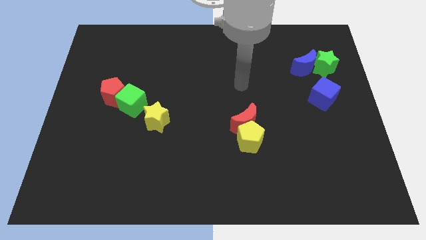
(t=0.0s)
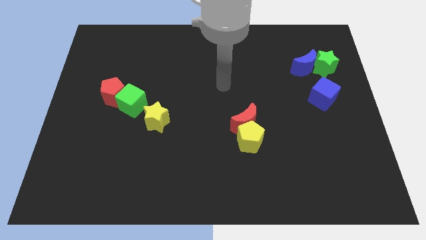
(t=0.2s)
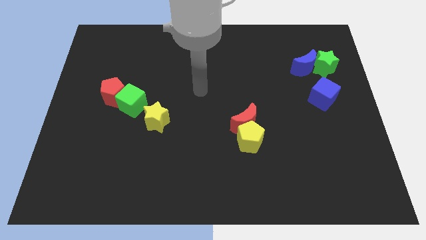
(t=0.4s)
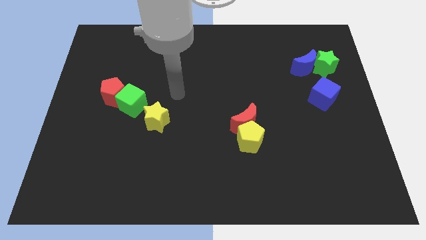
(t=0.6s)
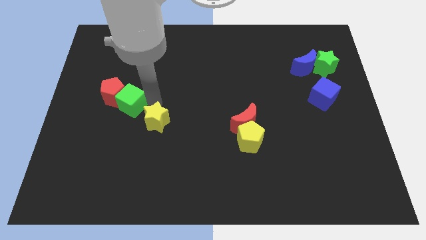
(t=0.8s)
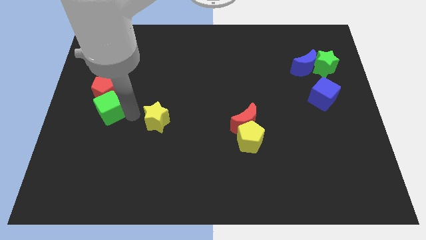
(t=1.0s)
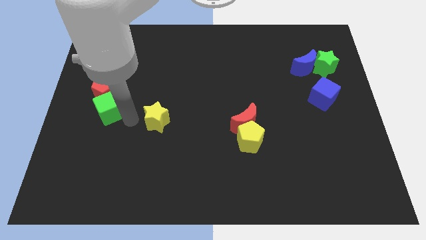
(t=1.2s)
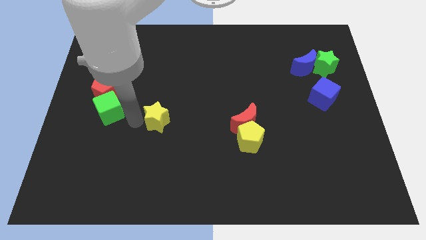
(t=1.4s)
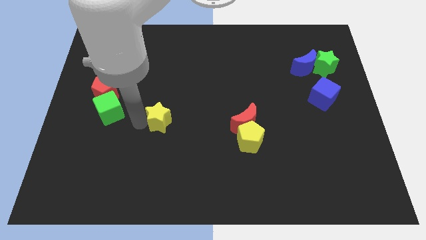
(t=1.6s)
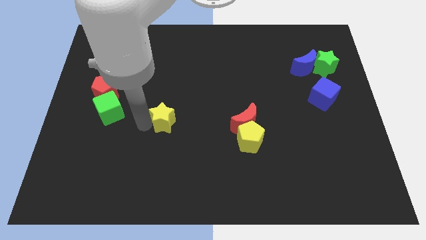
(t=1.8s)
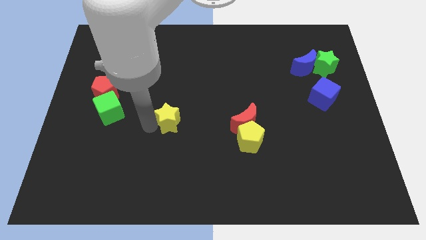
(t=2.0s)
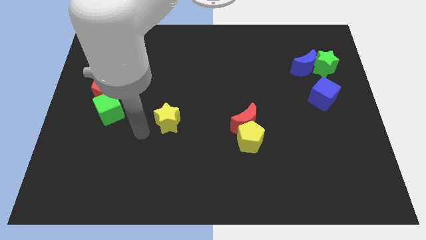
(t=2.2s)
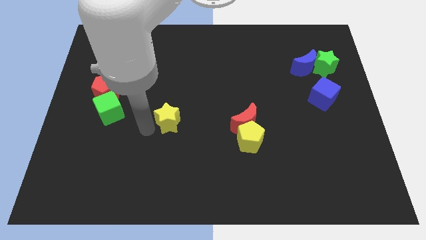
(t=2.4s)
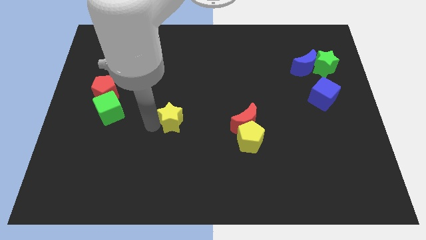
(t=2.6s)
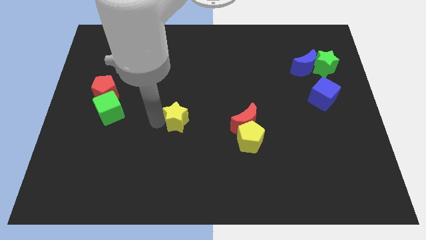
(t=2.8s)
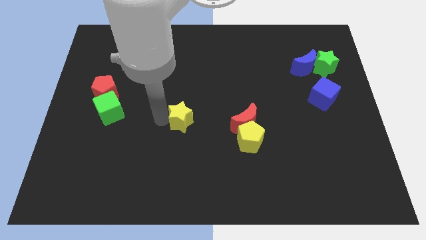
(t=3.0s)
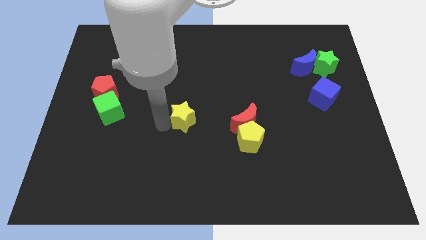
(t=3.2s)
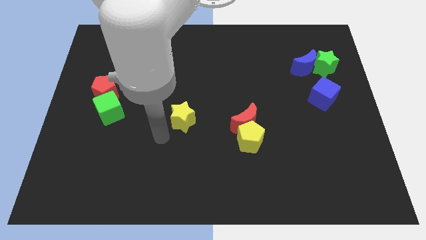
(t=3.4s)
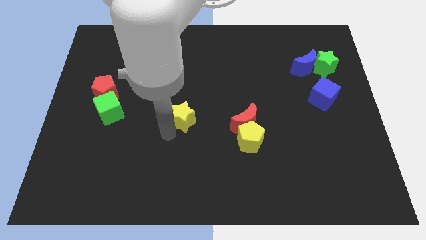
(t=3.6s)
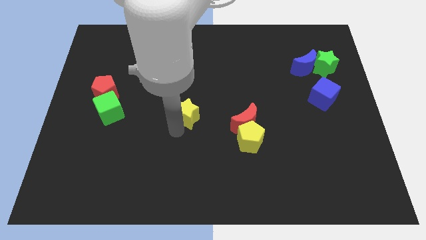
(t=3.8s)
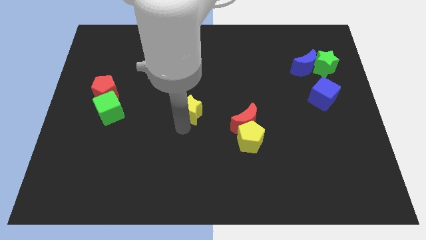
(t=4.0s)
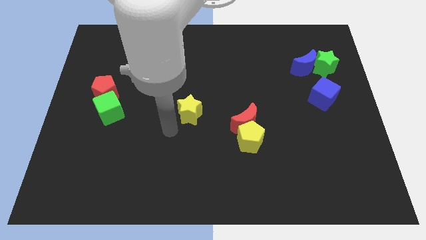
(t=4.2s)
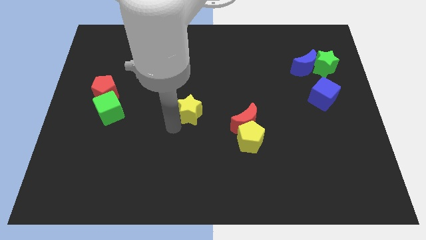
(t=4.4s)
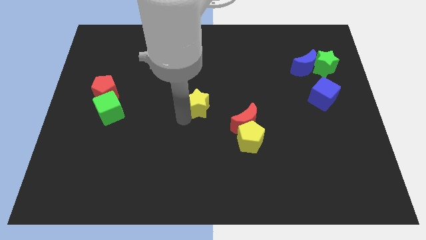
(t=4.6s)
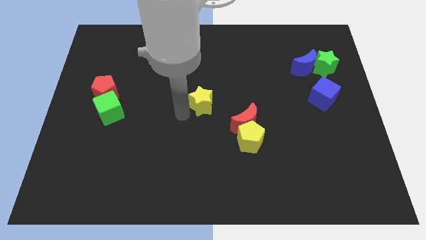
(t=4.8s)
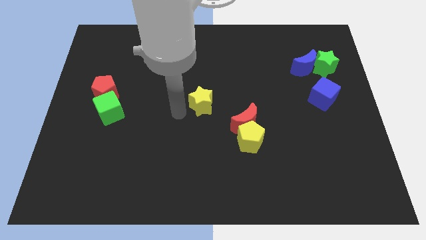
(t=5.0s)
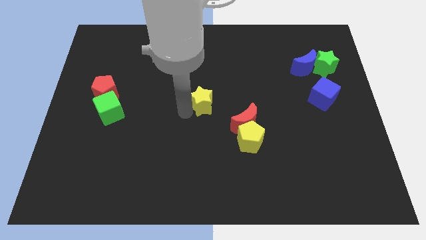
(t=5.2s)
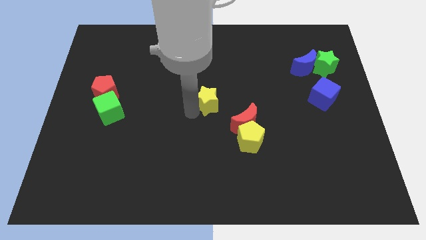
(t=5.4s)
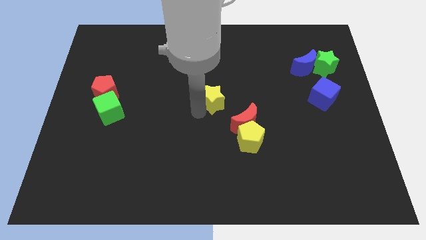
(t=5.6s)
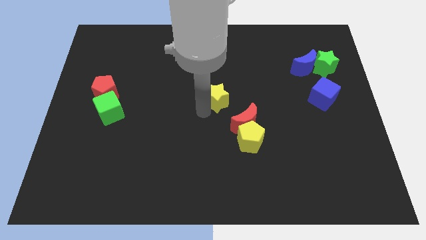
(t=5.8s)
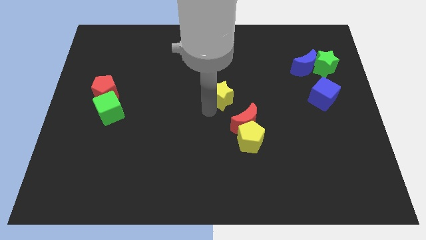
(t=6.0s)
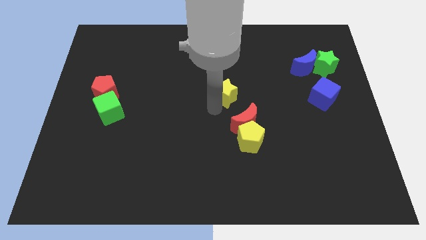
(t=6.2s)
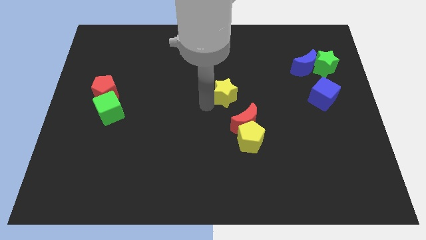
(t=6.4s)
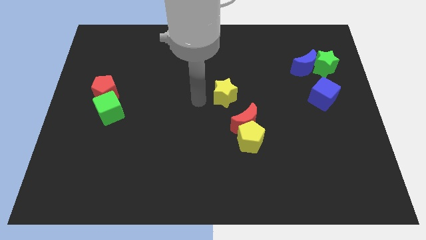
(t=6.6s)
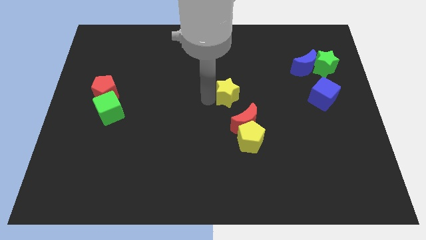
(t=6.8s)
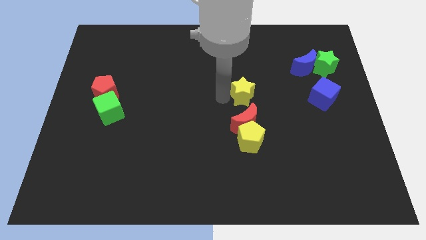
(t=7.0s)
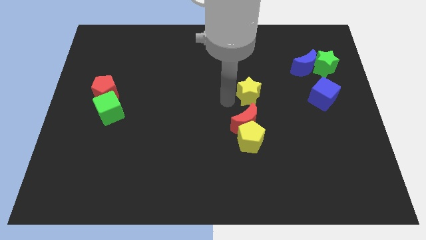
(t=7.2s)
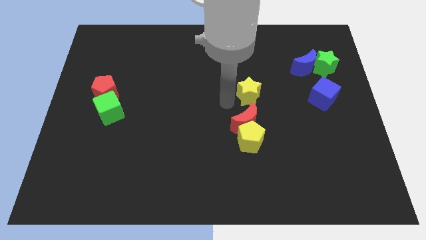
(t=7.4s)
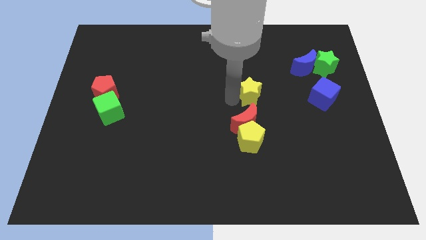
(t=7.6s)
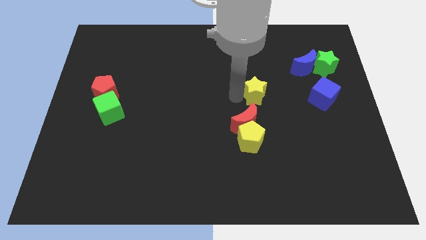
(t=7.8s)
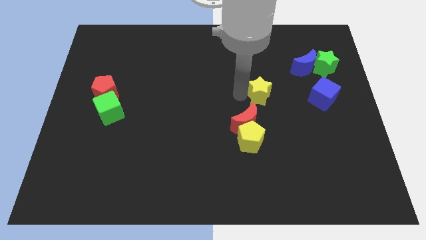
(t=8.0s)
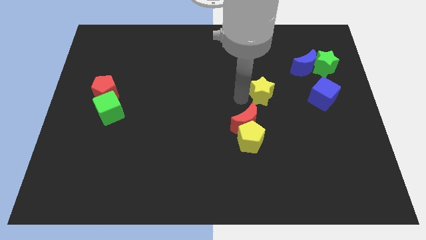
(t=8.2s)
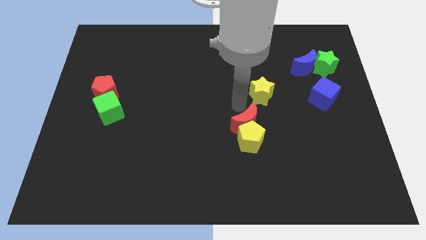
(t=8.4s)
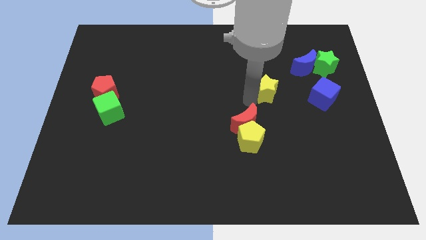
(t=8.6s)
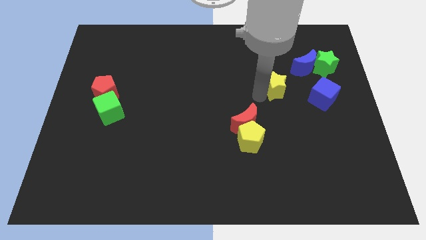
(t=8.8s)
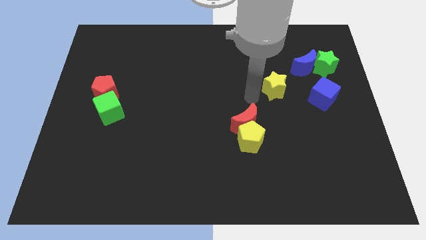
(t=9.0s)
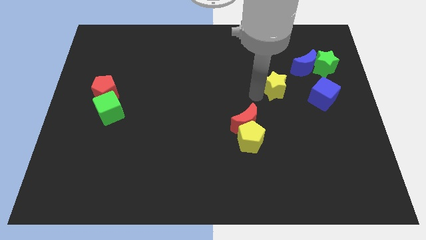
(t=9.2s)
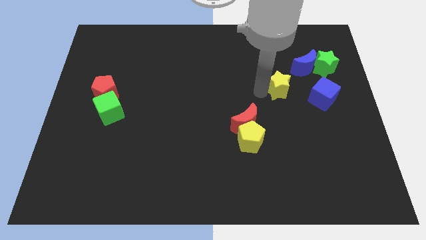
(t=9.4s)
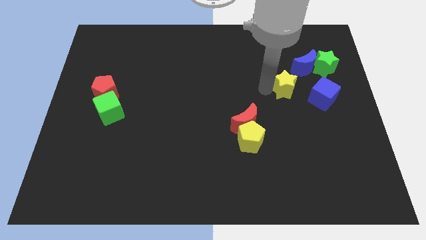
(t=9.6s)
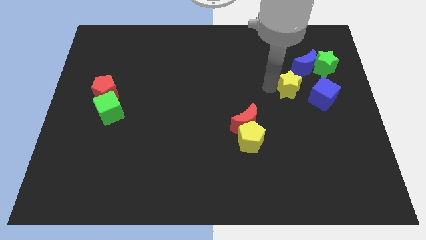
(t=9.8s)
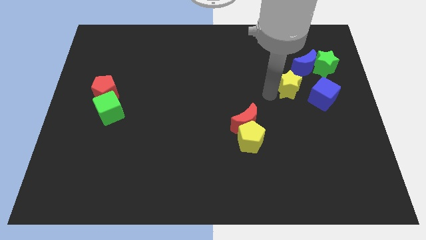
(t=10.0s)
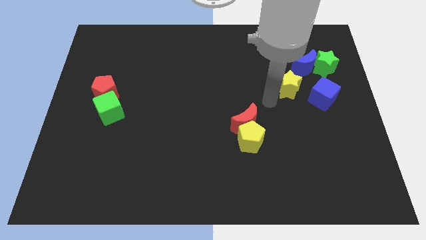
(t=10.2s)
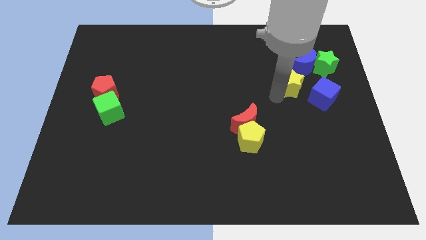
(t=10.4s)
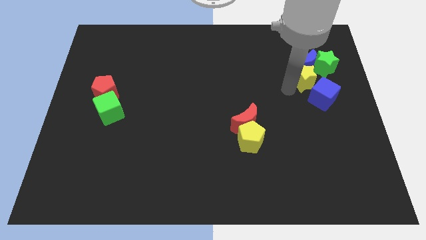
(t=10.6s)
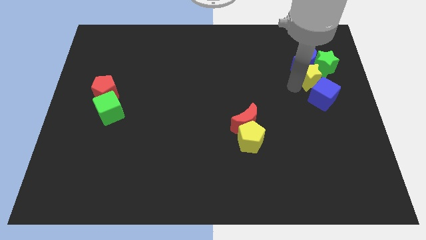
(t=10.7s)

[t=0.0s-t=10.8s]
put the yellow star to the green star

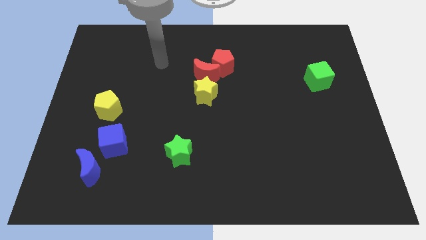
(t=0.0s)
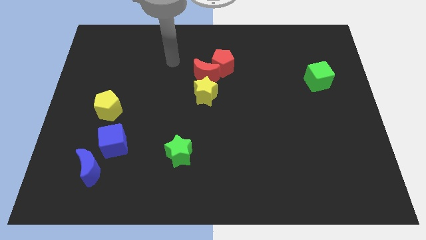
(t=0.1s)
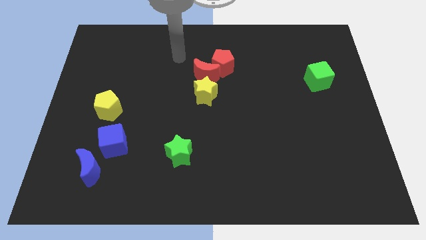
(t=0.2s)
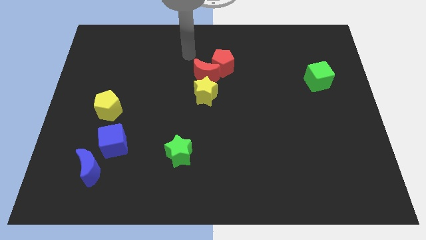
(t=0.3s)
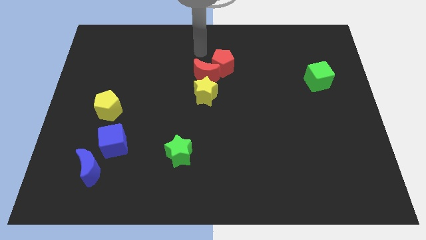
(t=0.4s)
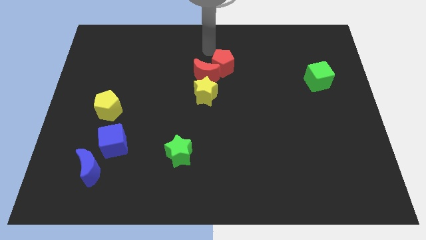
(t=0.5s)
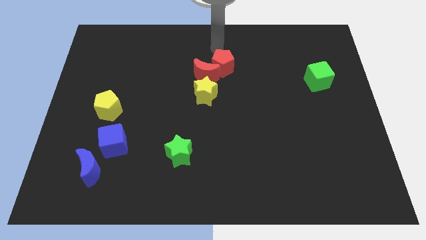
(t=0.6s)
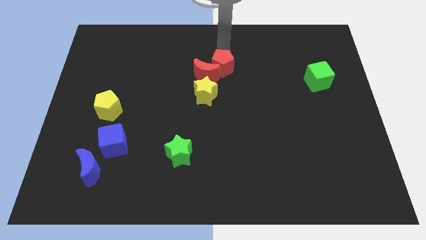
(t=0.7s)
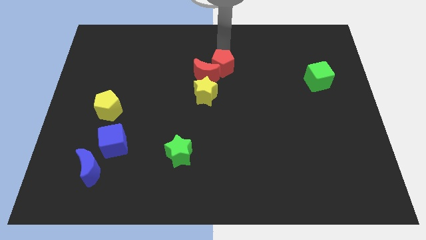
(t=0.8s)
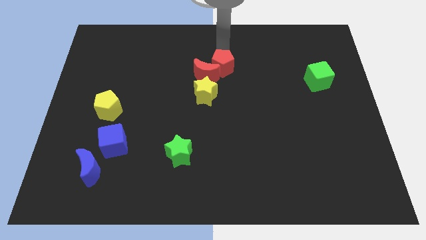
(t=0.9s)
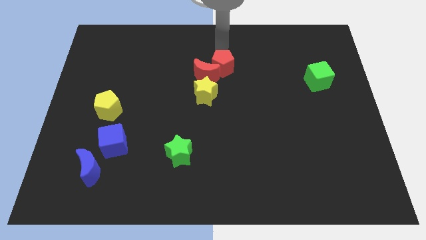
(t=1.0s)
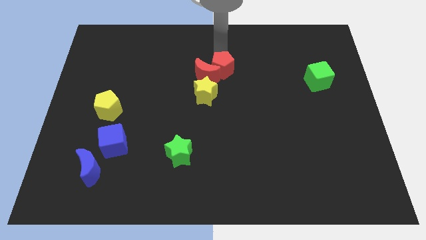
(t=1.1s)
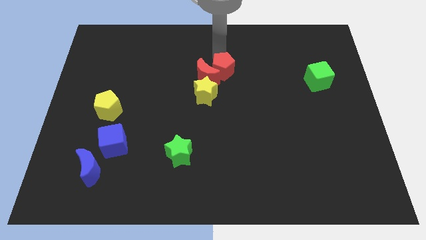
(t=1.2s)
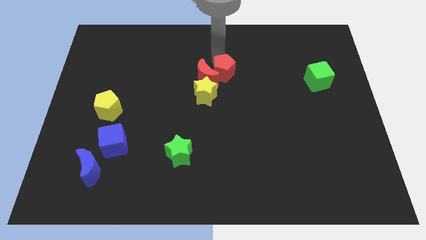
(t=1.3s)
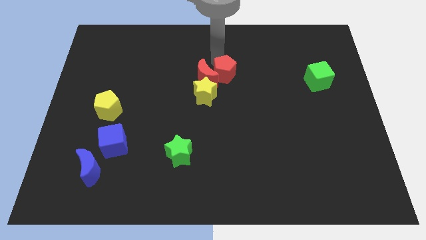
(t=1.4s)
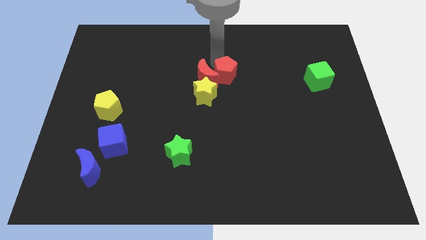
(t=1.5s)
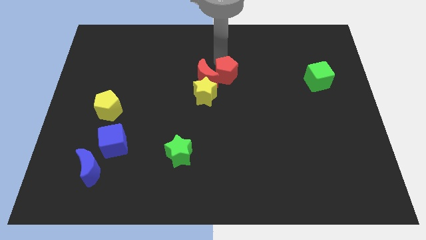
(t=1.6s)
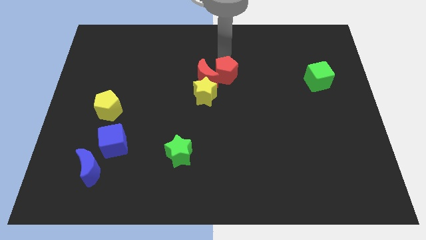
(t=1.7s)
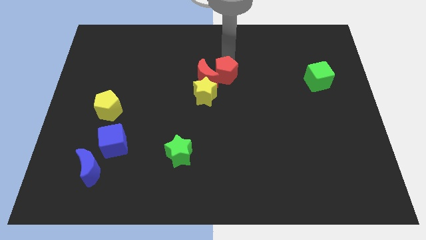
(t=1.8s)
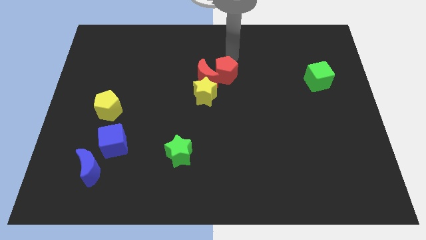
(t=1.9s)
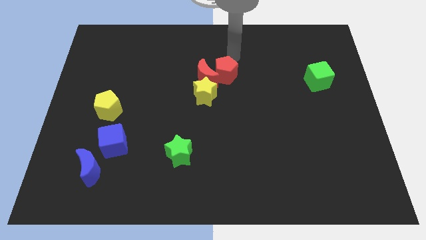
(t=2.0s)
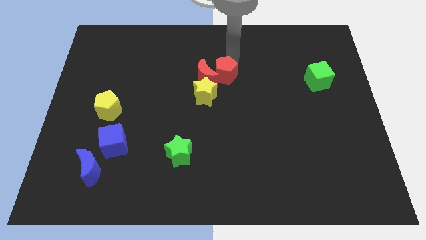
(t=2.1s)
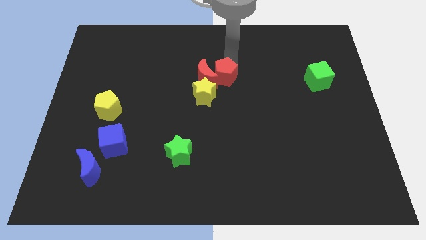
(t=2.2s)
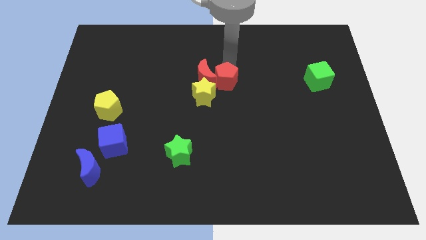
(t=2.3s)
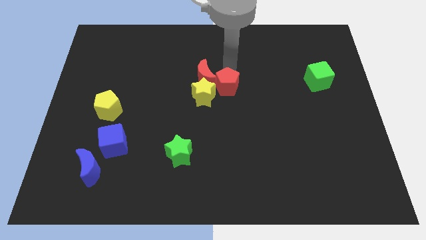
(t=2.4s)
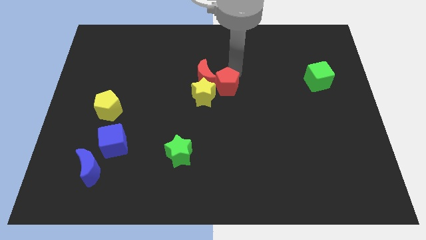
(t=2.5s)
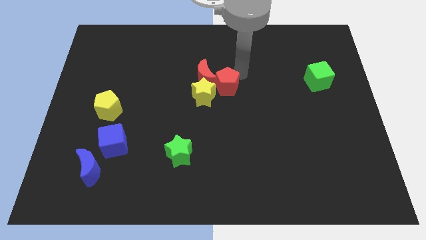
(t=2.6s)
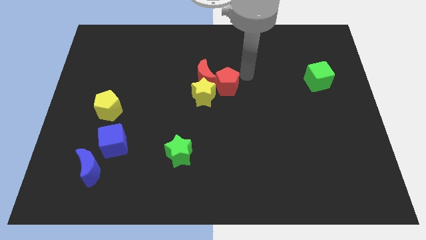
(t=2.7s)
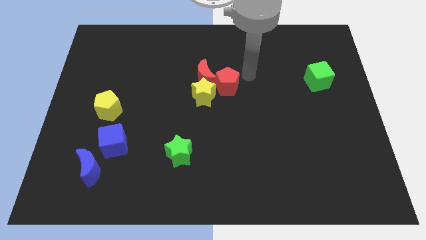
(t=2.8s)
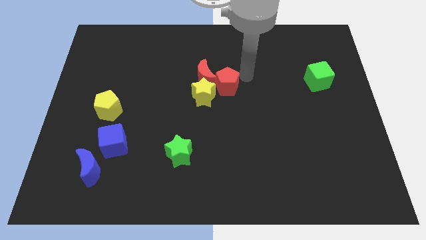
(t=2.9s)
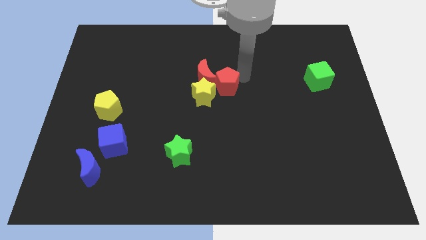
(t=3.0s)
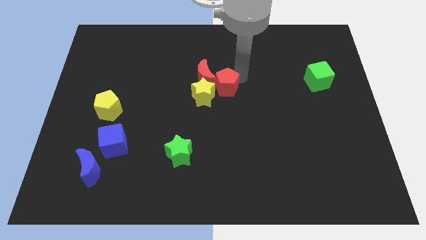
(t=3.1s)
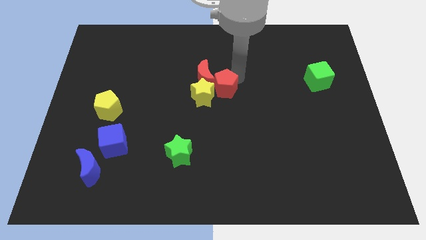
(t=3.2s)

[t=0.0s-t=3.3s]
slide the red pentagon towards the yellow star
